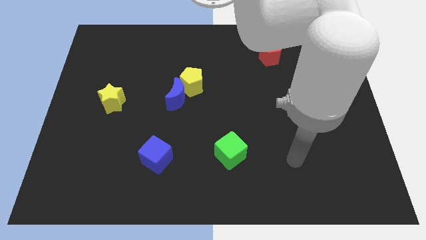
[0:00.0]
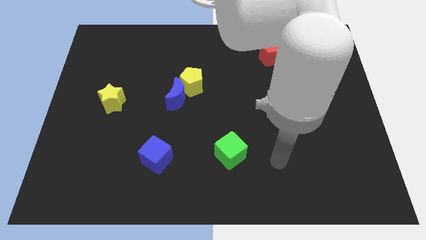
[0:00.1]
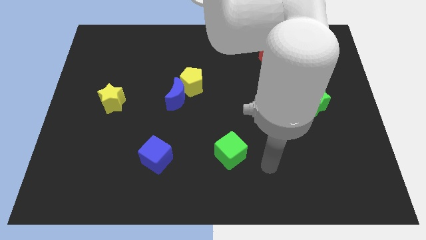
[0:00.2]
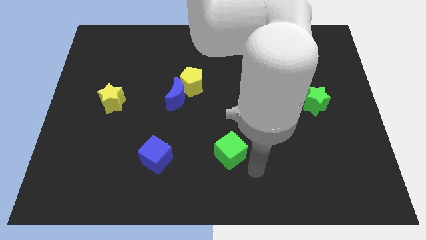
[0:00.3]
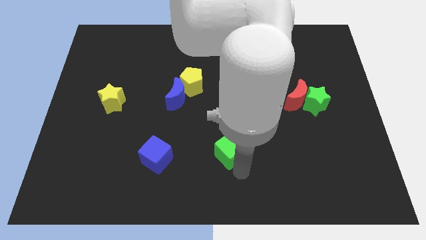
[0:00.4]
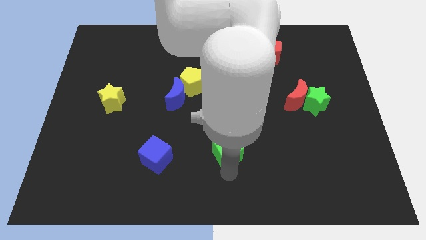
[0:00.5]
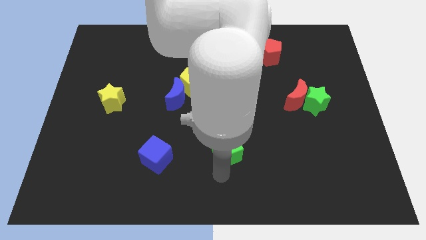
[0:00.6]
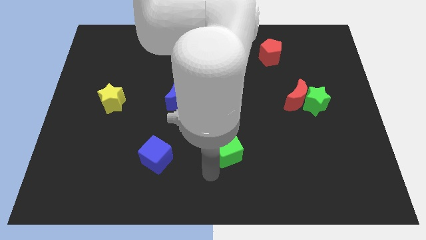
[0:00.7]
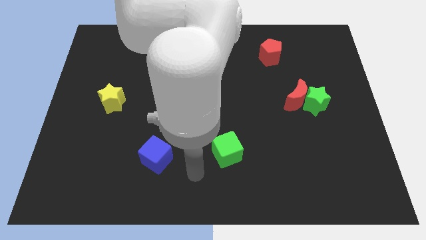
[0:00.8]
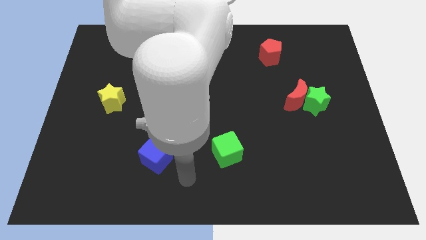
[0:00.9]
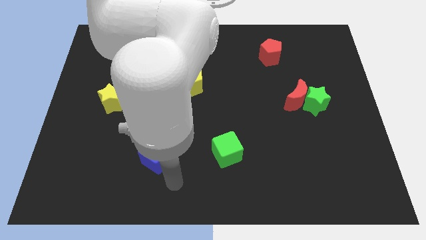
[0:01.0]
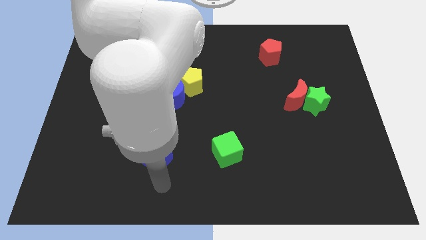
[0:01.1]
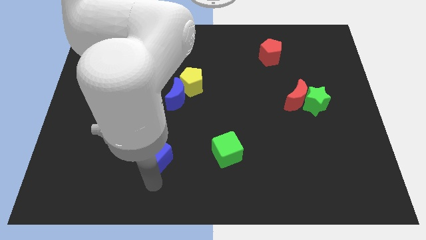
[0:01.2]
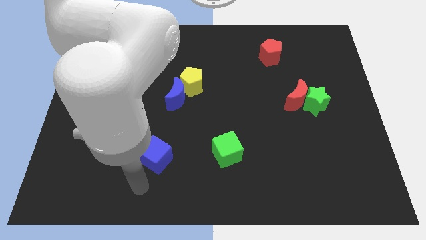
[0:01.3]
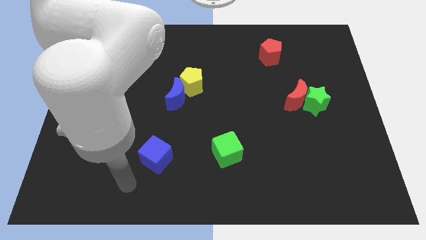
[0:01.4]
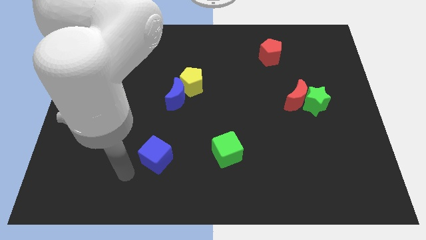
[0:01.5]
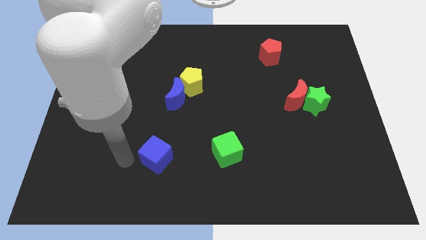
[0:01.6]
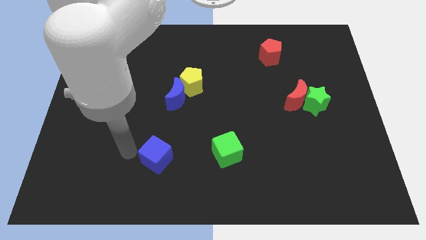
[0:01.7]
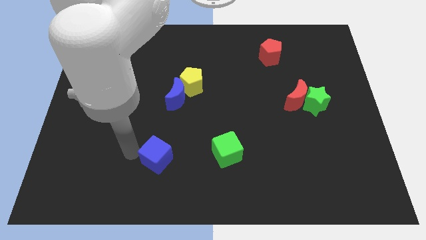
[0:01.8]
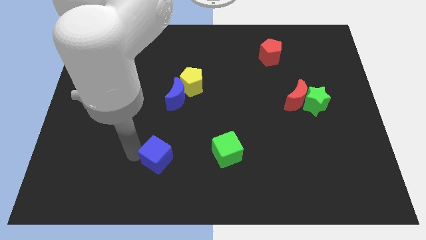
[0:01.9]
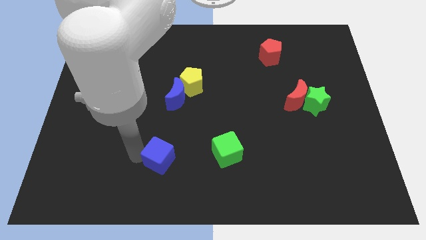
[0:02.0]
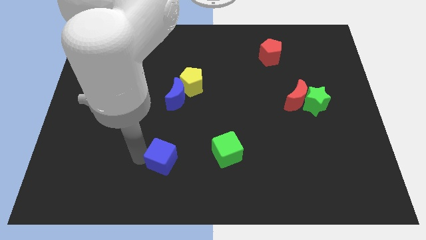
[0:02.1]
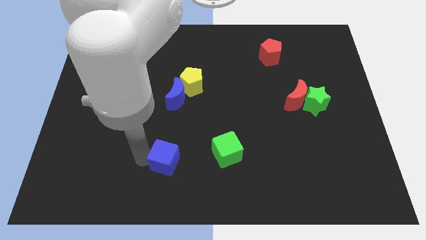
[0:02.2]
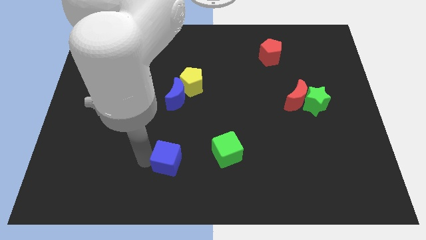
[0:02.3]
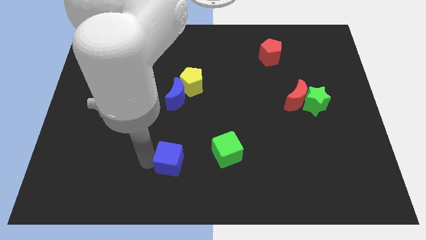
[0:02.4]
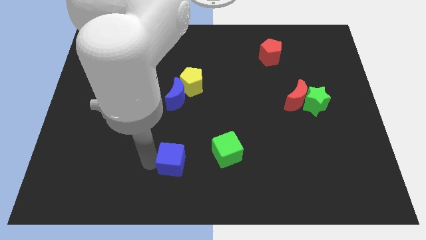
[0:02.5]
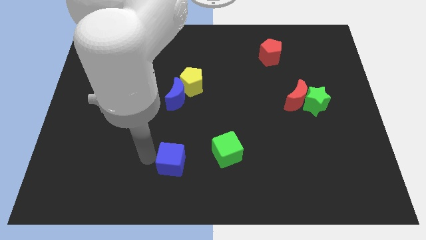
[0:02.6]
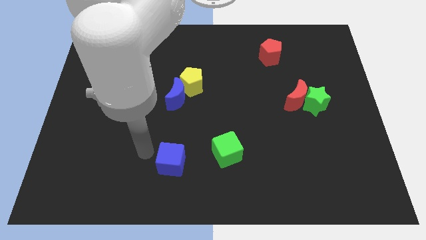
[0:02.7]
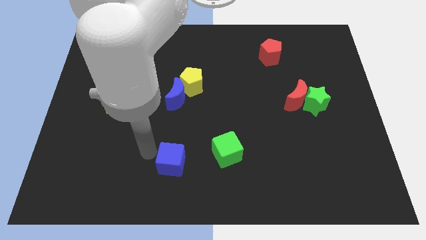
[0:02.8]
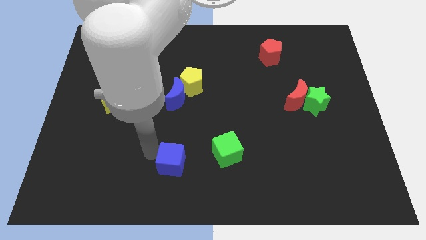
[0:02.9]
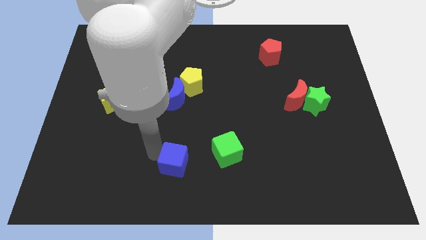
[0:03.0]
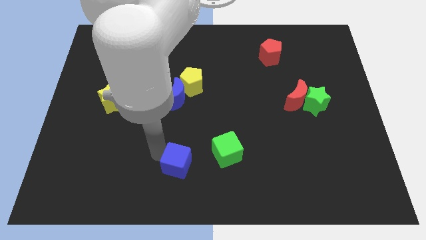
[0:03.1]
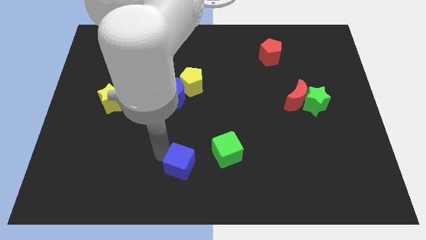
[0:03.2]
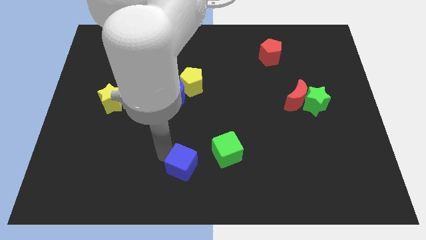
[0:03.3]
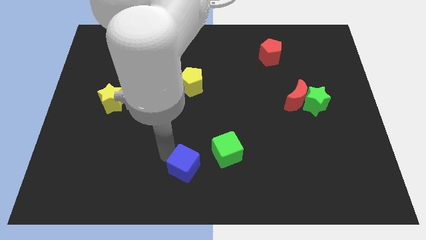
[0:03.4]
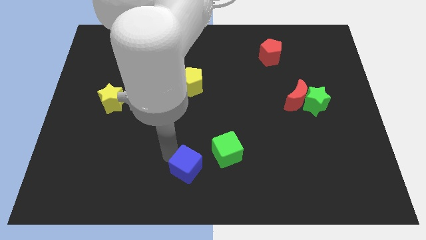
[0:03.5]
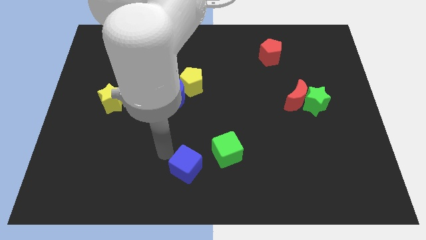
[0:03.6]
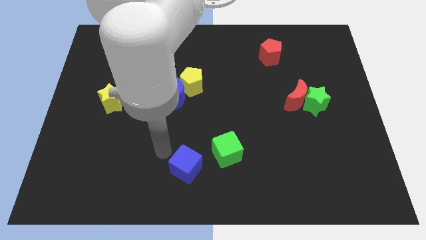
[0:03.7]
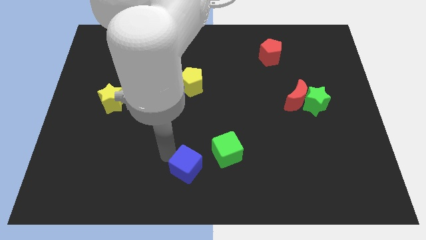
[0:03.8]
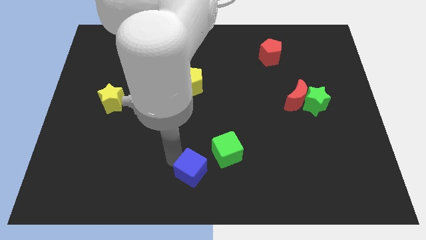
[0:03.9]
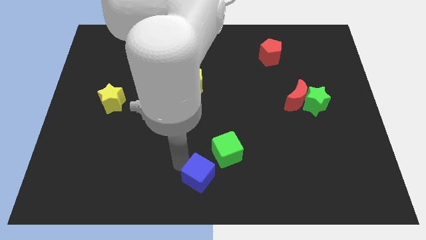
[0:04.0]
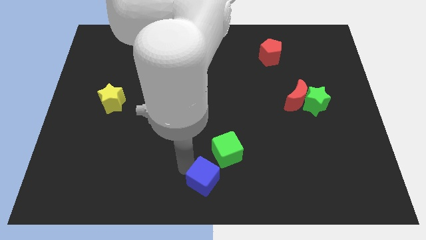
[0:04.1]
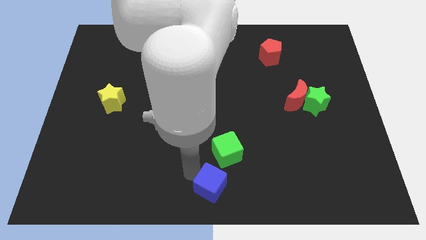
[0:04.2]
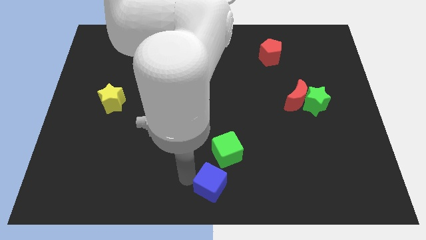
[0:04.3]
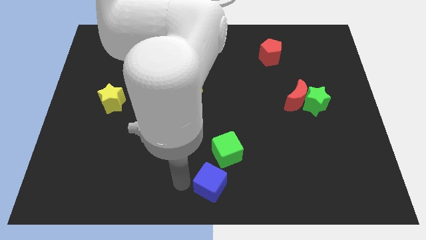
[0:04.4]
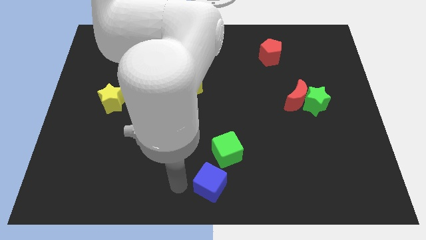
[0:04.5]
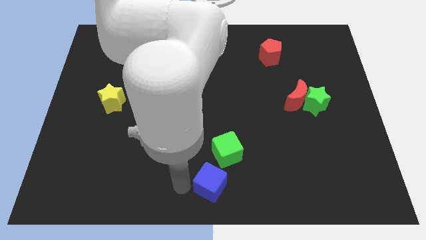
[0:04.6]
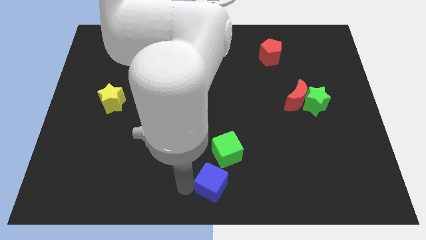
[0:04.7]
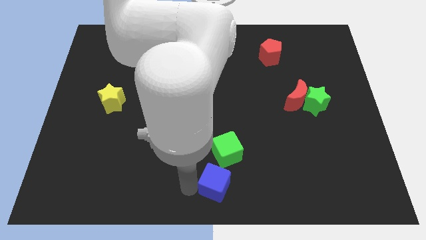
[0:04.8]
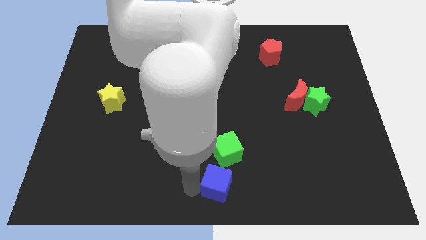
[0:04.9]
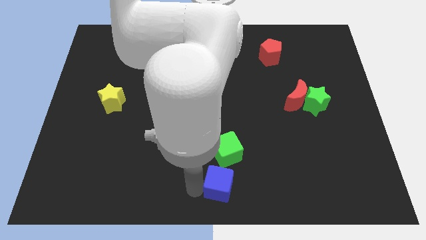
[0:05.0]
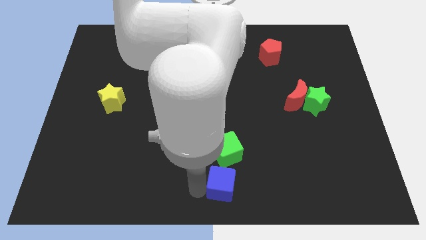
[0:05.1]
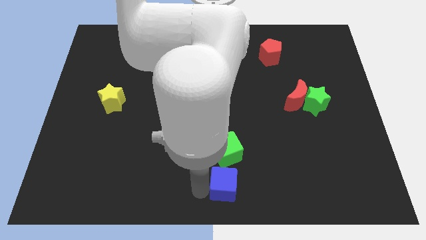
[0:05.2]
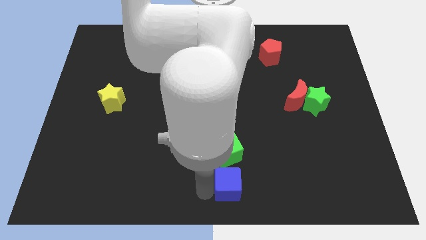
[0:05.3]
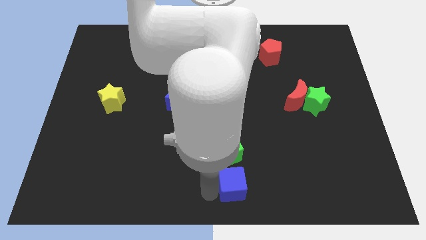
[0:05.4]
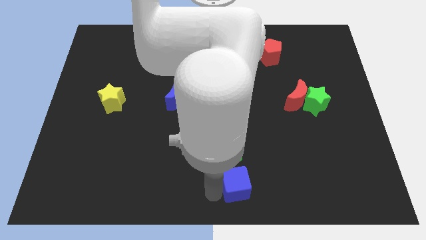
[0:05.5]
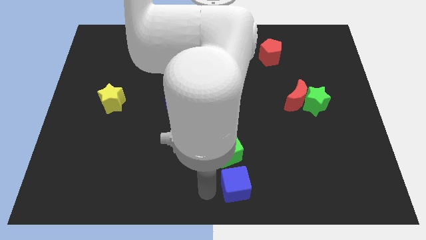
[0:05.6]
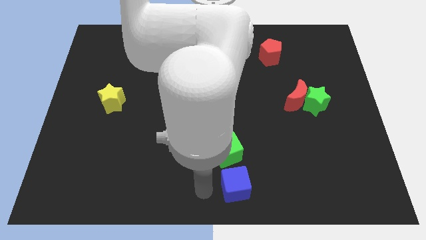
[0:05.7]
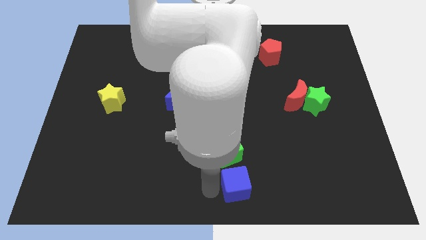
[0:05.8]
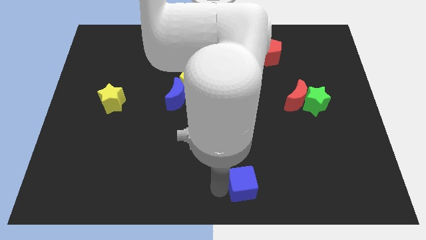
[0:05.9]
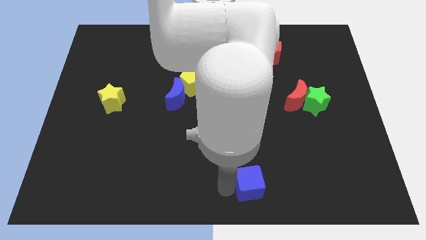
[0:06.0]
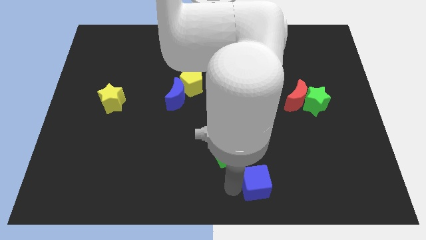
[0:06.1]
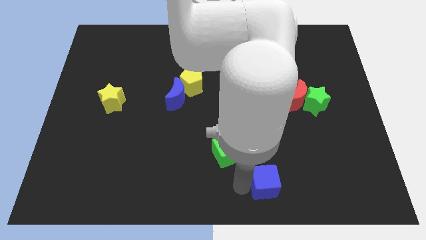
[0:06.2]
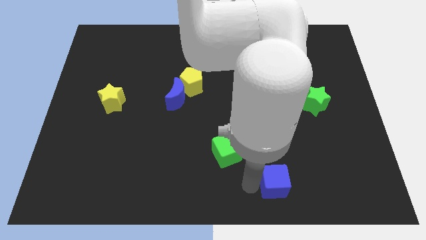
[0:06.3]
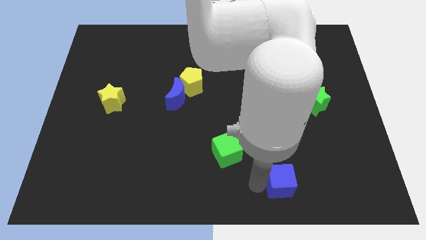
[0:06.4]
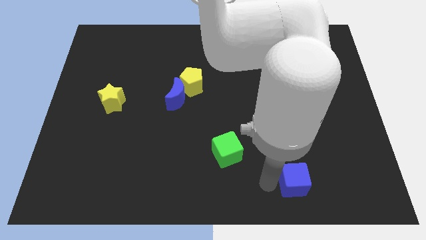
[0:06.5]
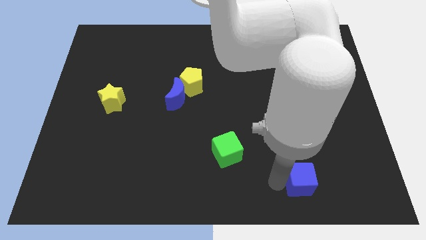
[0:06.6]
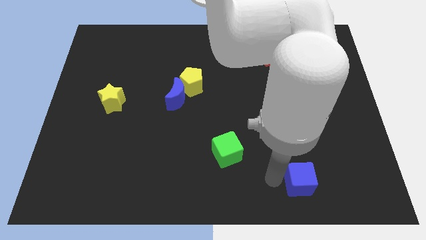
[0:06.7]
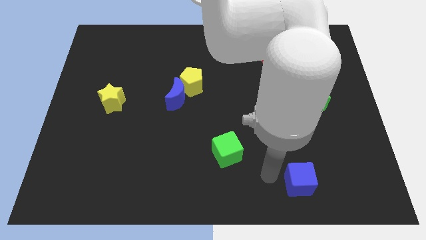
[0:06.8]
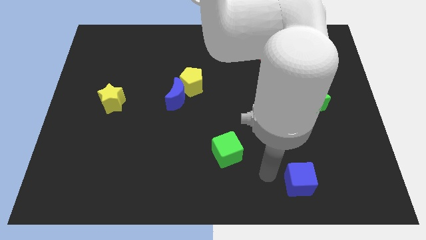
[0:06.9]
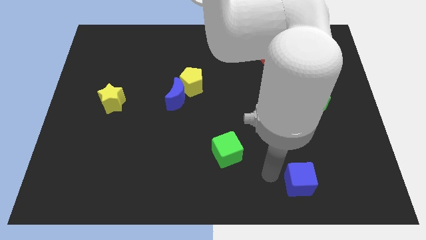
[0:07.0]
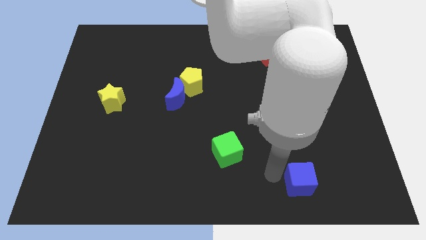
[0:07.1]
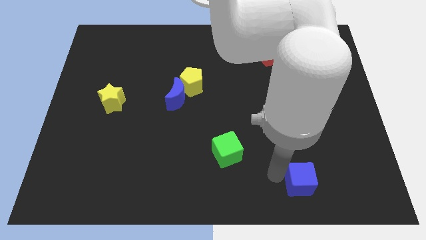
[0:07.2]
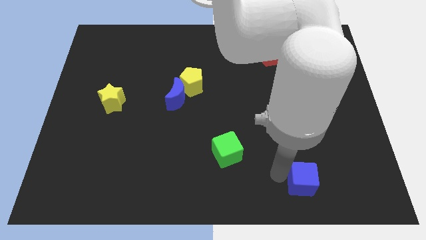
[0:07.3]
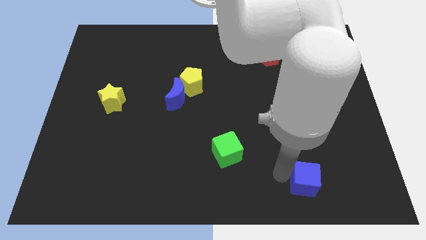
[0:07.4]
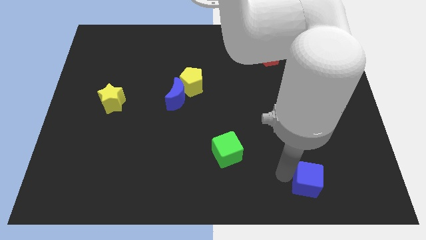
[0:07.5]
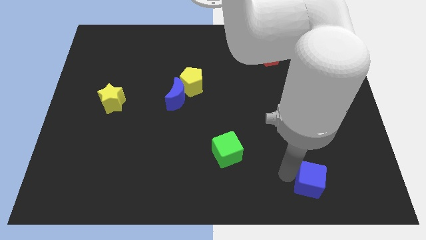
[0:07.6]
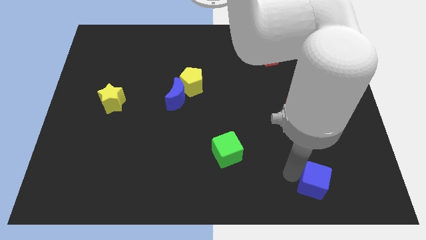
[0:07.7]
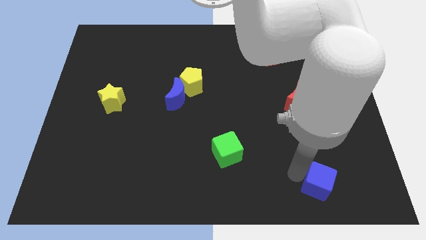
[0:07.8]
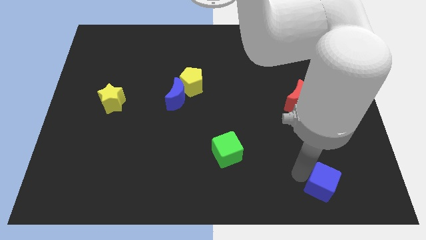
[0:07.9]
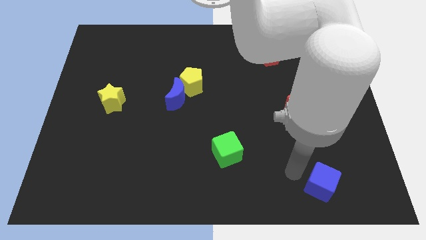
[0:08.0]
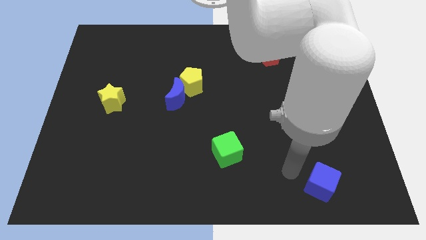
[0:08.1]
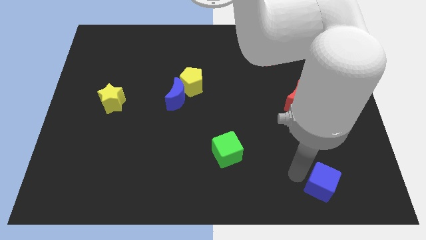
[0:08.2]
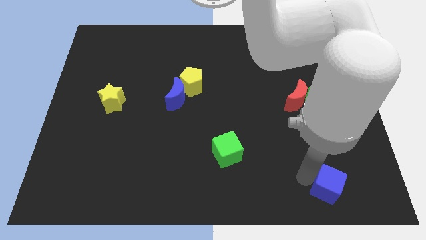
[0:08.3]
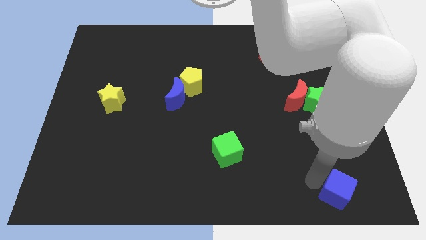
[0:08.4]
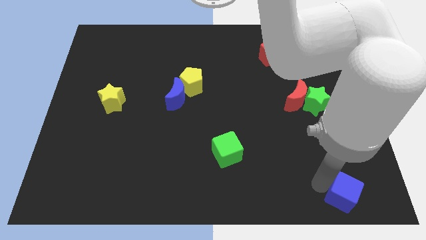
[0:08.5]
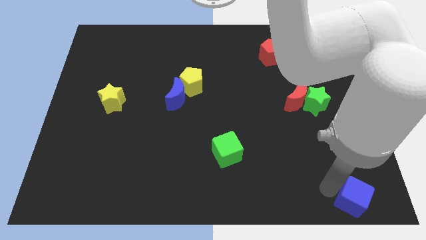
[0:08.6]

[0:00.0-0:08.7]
slide the blue cube to the bottom right corner
